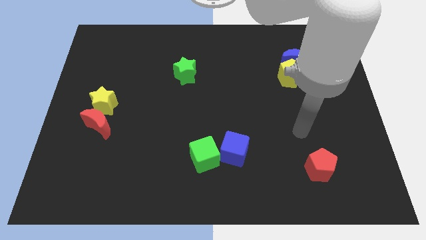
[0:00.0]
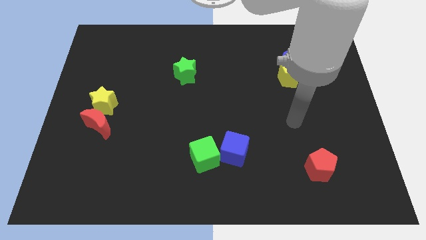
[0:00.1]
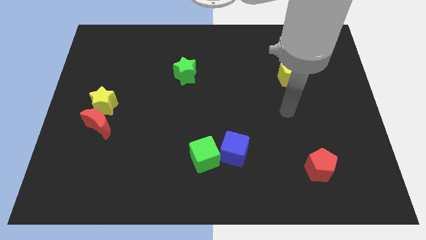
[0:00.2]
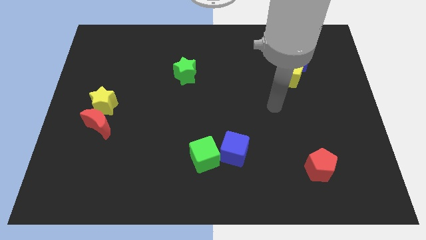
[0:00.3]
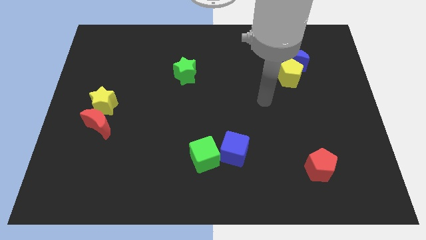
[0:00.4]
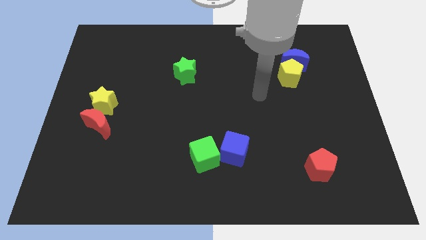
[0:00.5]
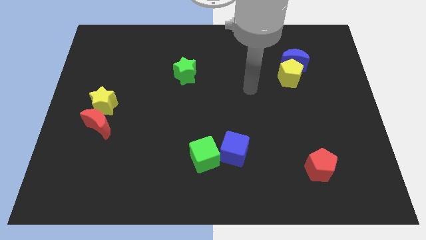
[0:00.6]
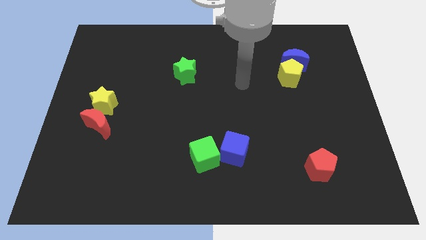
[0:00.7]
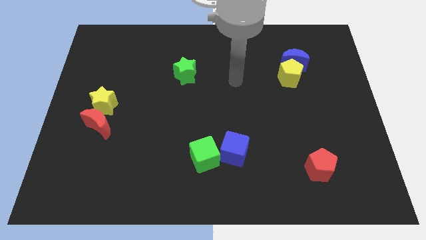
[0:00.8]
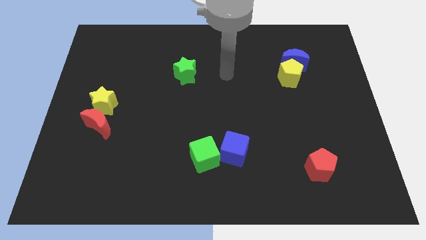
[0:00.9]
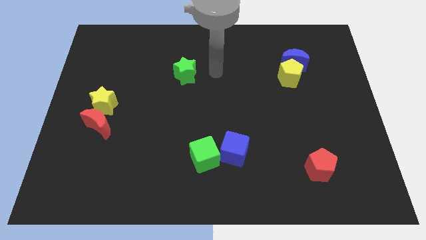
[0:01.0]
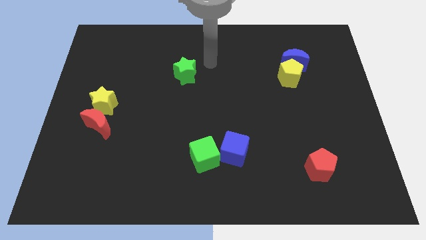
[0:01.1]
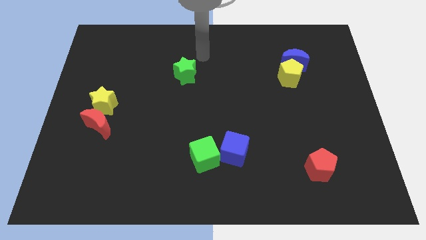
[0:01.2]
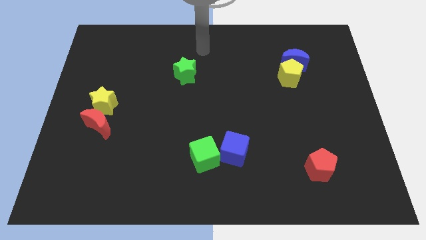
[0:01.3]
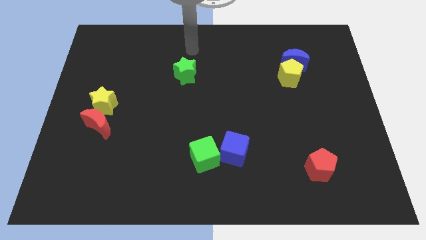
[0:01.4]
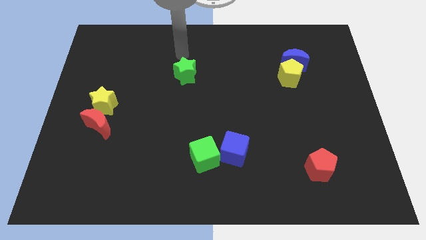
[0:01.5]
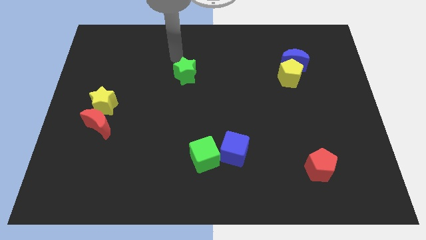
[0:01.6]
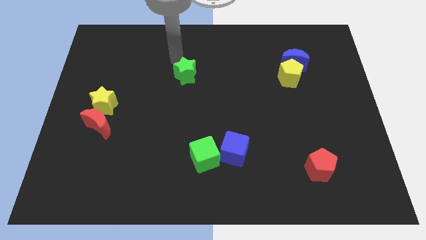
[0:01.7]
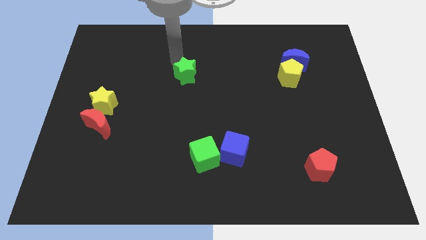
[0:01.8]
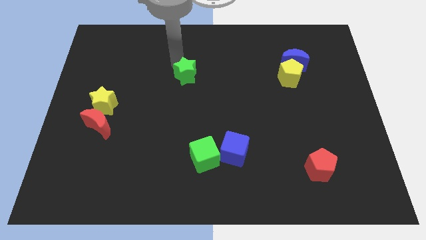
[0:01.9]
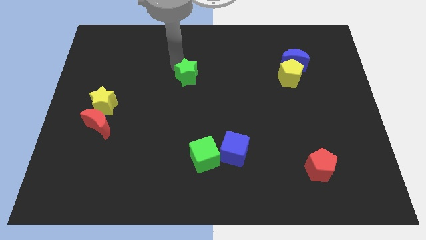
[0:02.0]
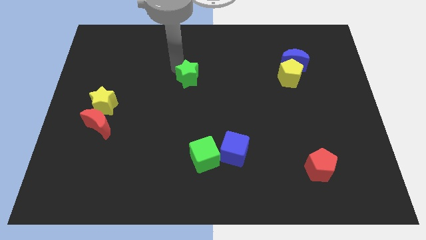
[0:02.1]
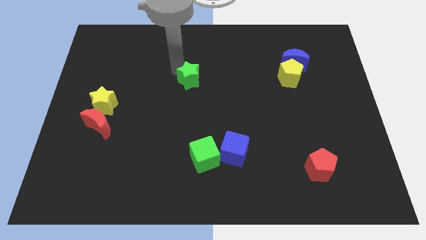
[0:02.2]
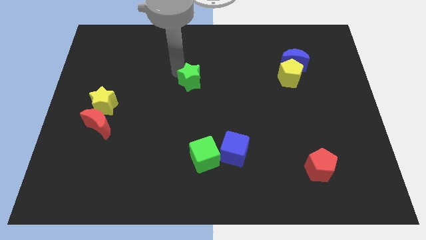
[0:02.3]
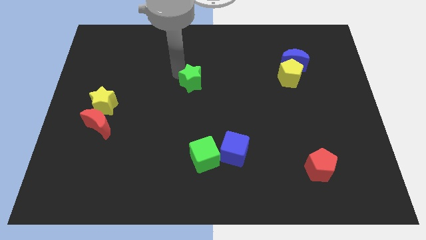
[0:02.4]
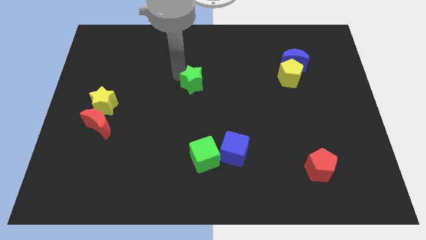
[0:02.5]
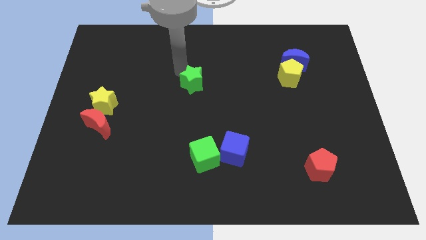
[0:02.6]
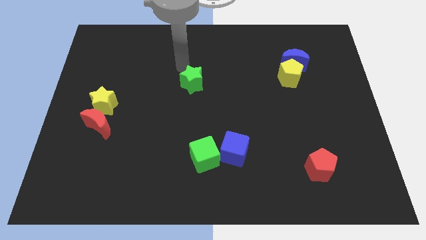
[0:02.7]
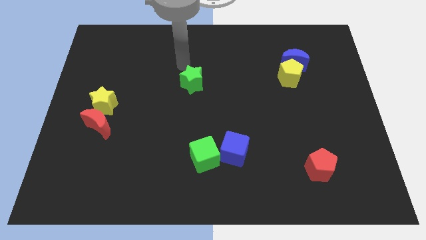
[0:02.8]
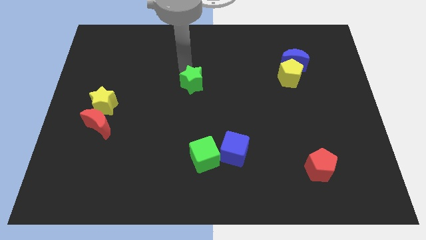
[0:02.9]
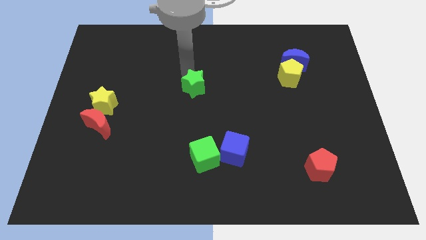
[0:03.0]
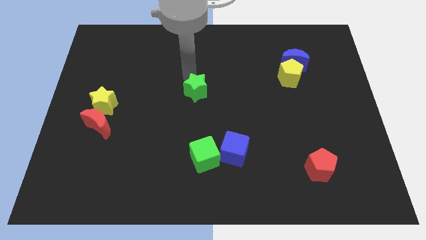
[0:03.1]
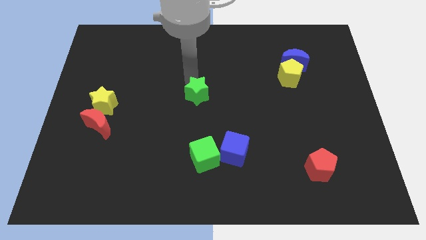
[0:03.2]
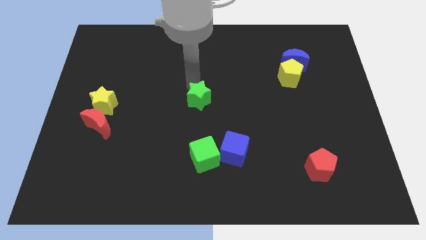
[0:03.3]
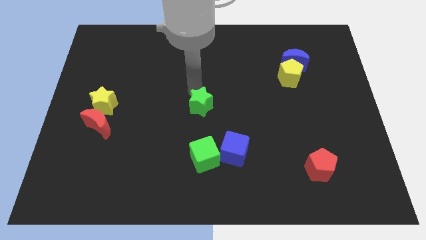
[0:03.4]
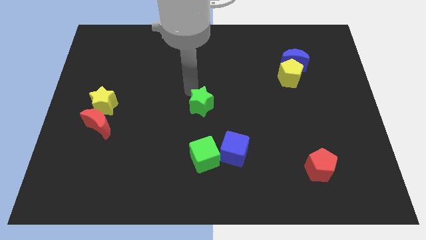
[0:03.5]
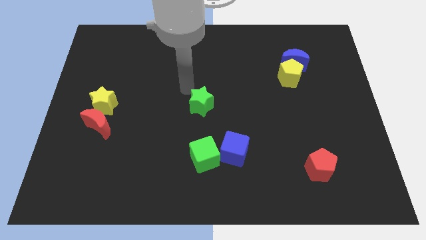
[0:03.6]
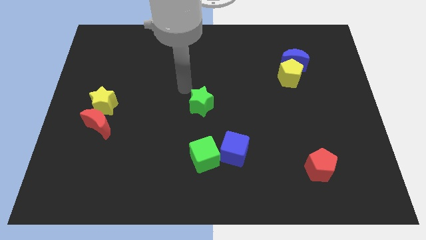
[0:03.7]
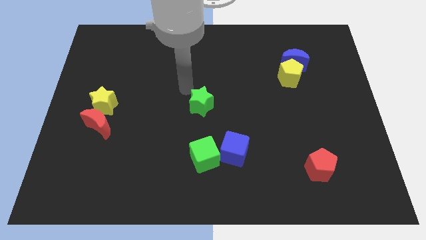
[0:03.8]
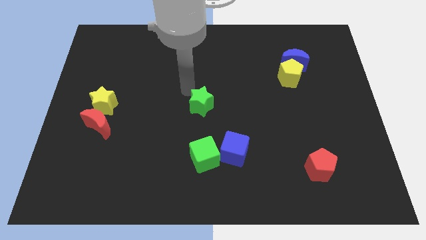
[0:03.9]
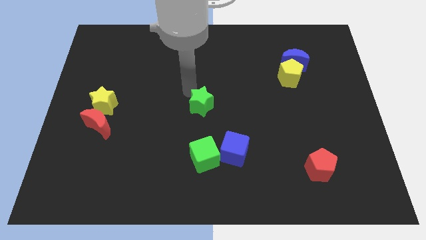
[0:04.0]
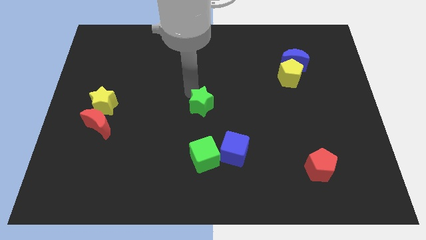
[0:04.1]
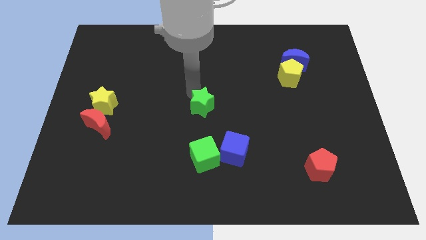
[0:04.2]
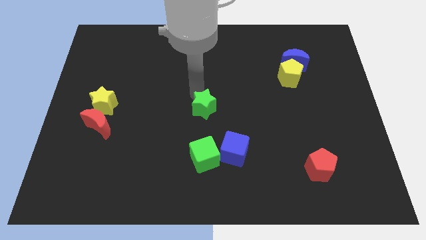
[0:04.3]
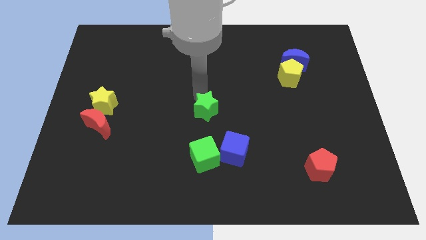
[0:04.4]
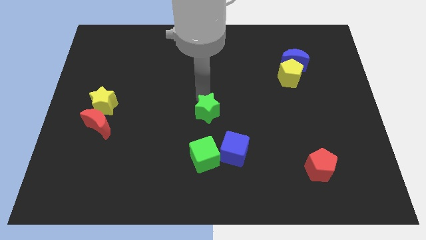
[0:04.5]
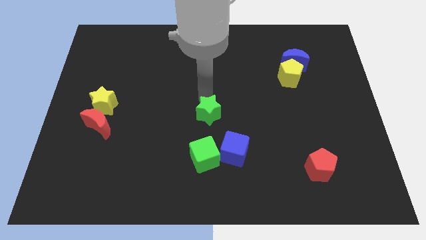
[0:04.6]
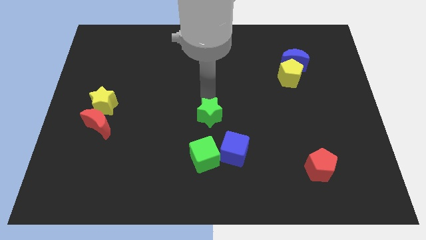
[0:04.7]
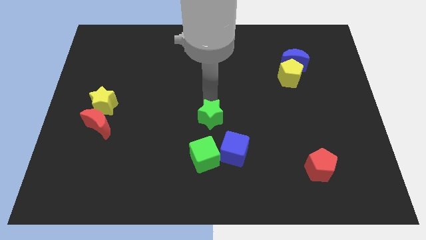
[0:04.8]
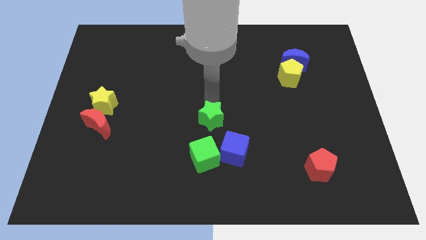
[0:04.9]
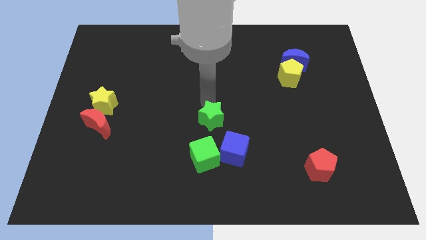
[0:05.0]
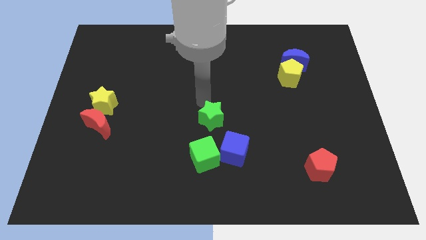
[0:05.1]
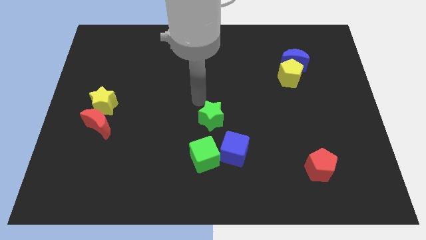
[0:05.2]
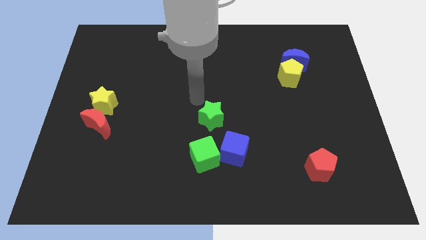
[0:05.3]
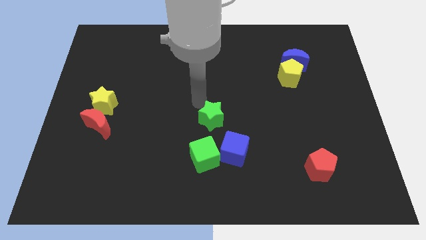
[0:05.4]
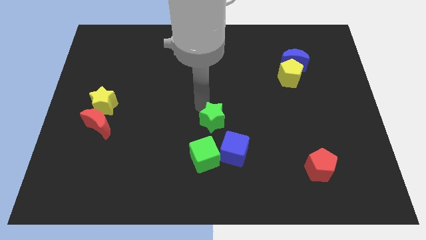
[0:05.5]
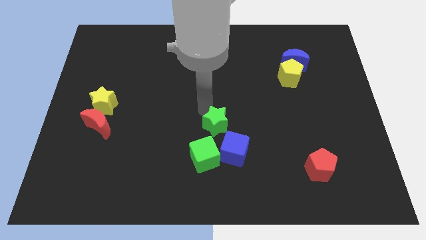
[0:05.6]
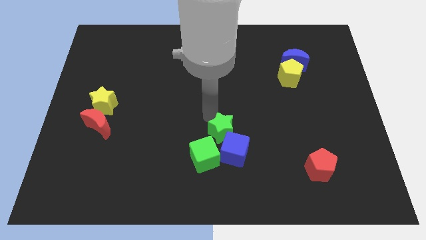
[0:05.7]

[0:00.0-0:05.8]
move the green star close to the blue cube
